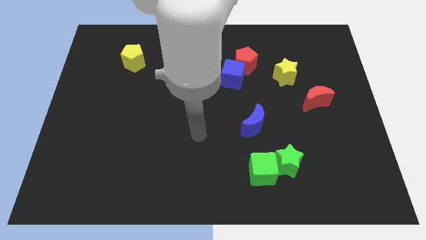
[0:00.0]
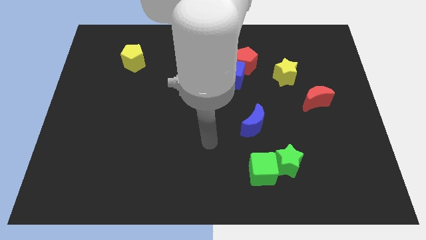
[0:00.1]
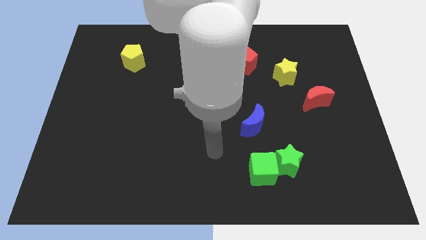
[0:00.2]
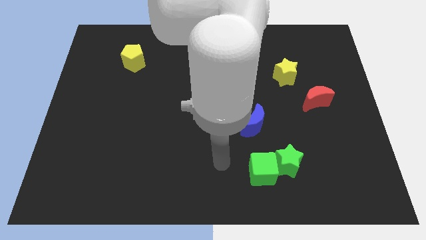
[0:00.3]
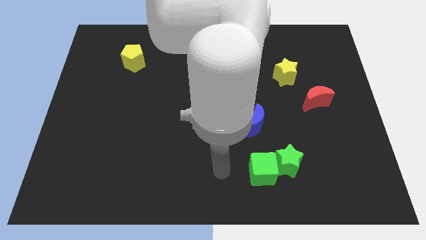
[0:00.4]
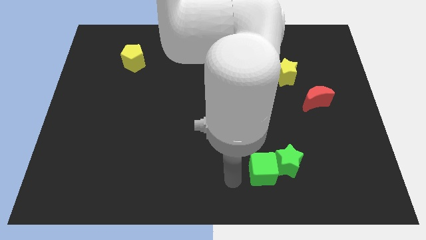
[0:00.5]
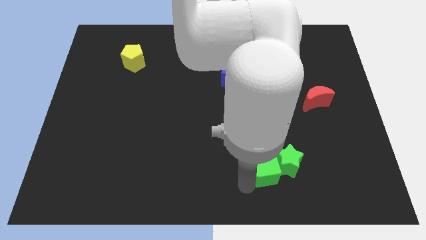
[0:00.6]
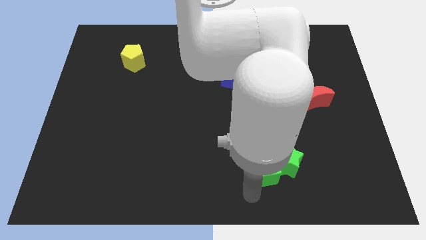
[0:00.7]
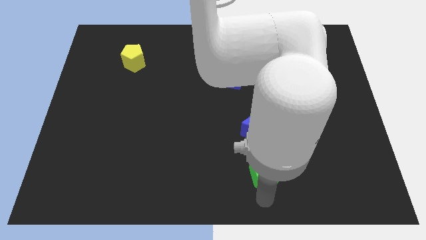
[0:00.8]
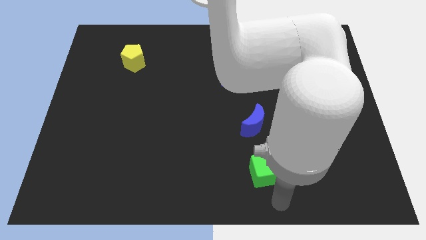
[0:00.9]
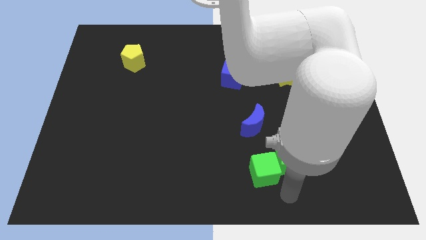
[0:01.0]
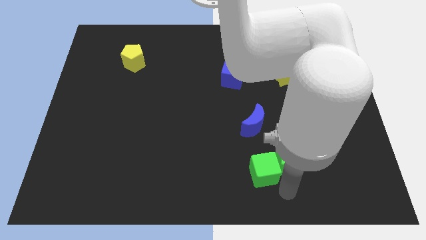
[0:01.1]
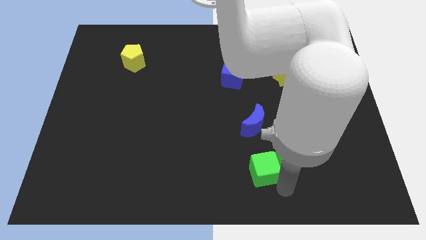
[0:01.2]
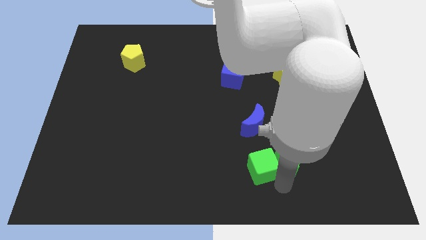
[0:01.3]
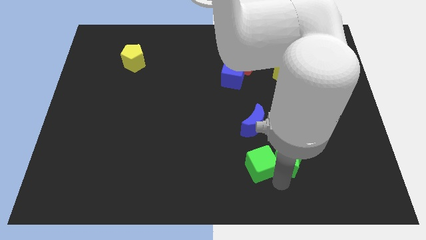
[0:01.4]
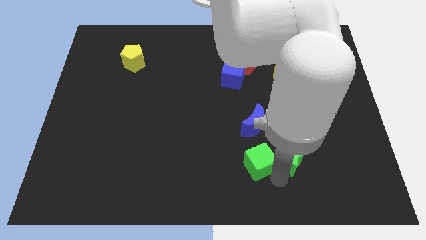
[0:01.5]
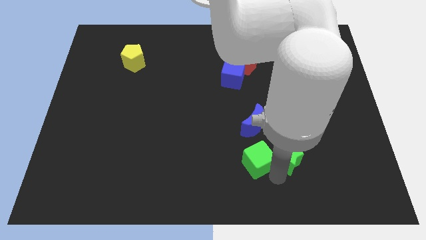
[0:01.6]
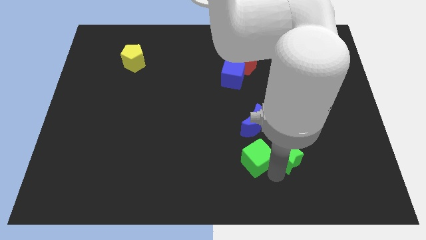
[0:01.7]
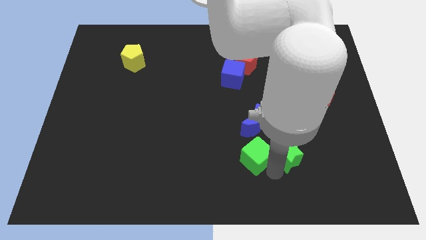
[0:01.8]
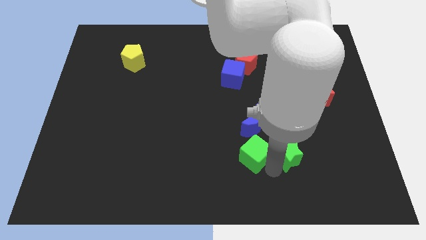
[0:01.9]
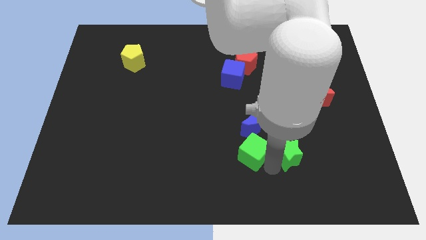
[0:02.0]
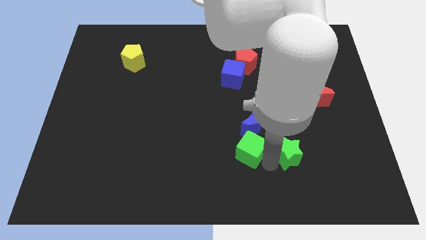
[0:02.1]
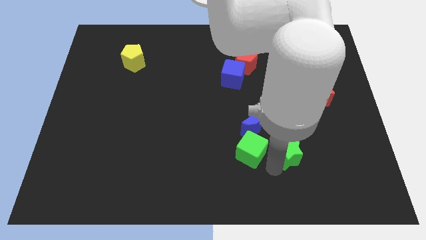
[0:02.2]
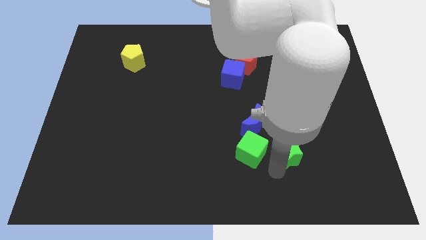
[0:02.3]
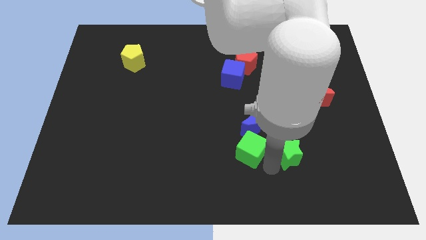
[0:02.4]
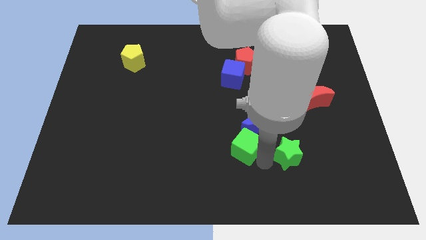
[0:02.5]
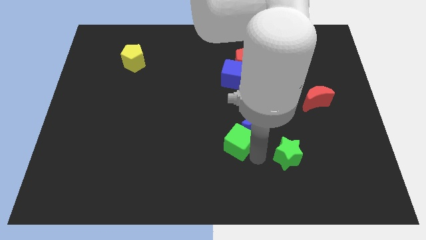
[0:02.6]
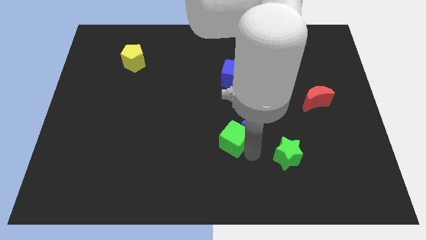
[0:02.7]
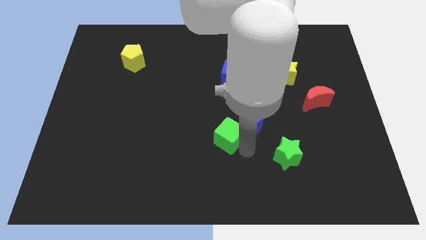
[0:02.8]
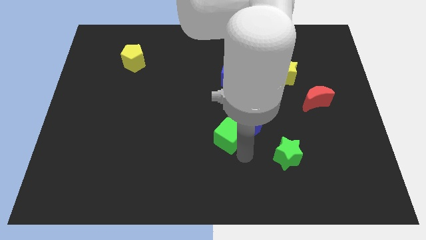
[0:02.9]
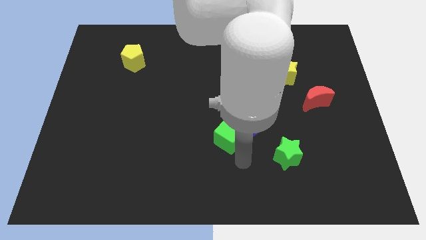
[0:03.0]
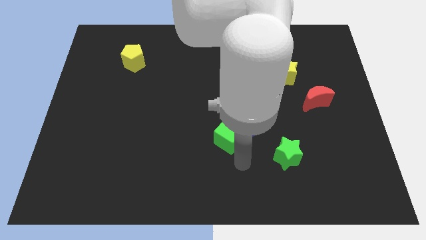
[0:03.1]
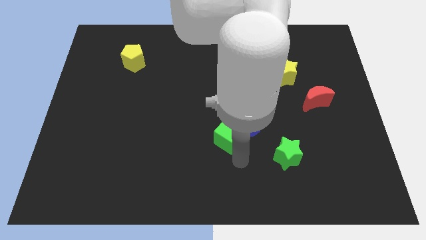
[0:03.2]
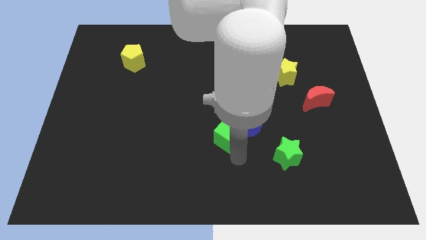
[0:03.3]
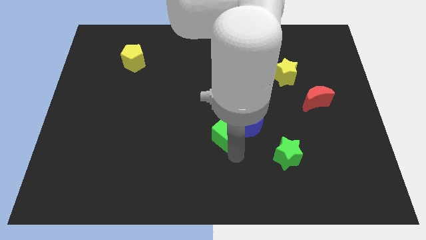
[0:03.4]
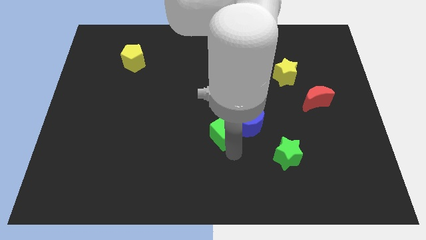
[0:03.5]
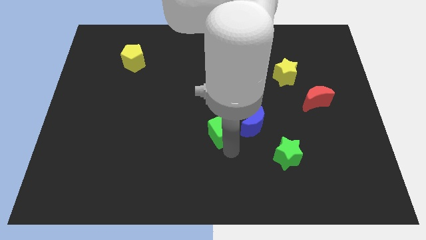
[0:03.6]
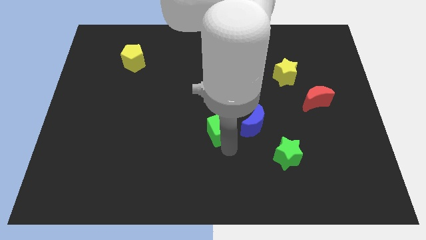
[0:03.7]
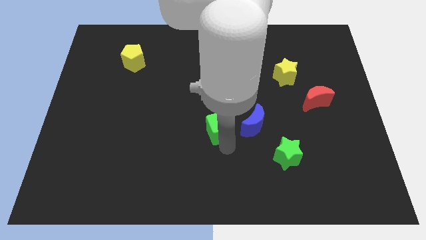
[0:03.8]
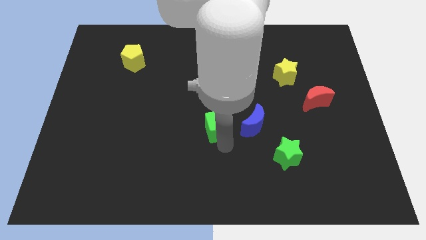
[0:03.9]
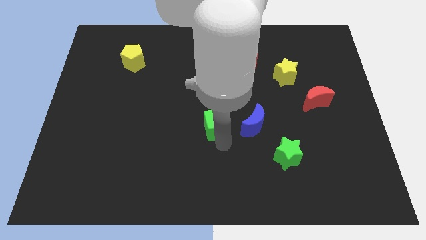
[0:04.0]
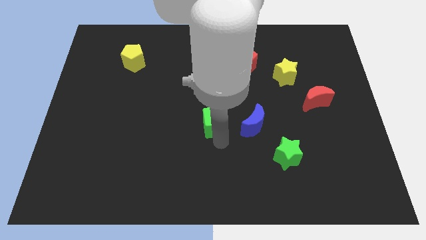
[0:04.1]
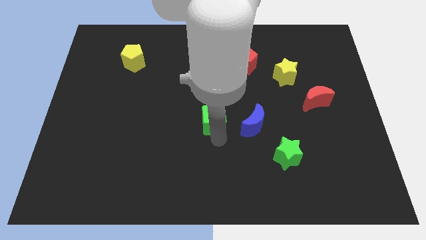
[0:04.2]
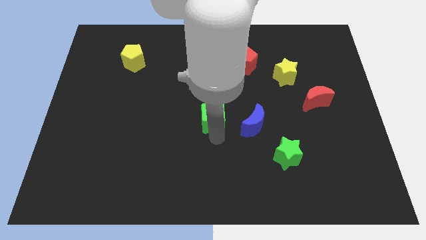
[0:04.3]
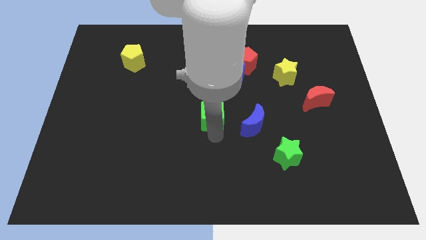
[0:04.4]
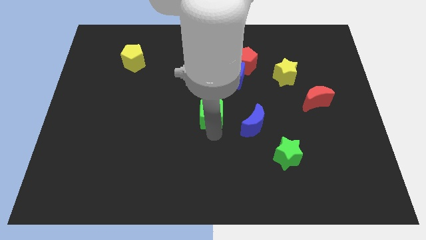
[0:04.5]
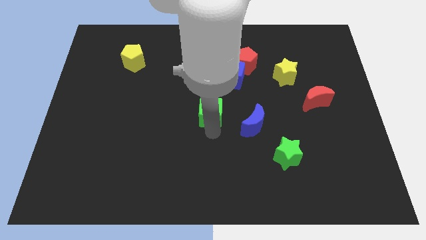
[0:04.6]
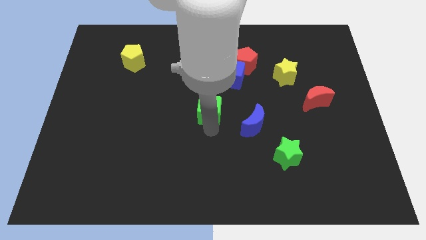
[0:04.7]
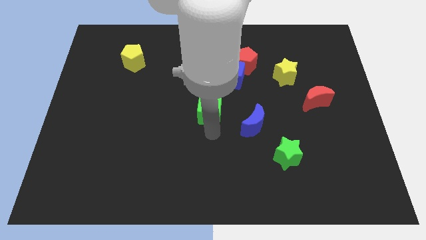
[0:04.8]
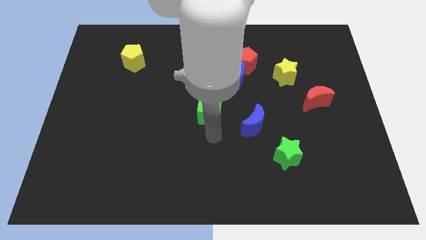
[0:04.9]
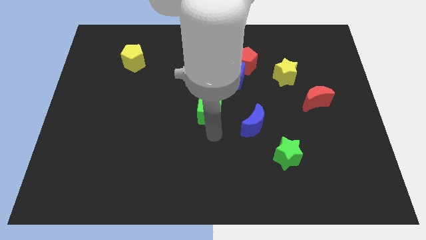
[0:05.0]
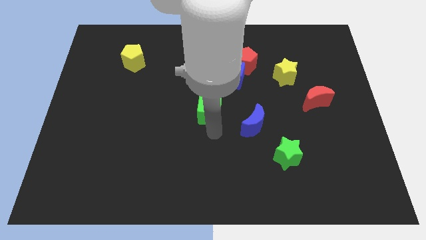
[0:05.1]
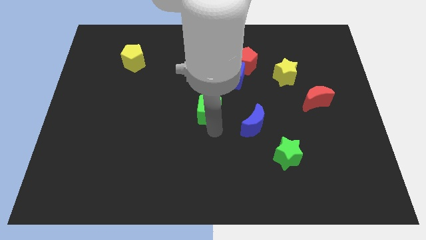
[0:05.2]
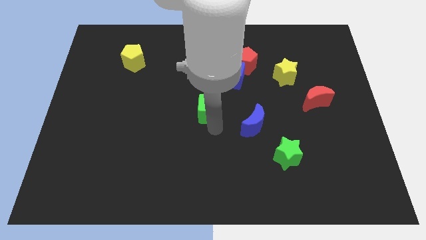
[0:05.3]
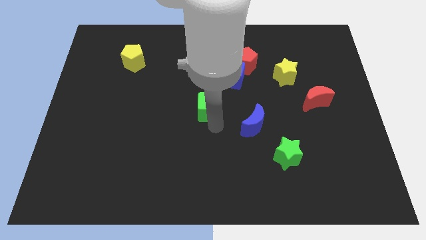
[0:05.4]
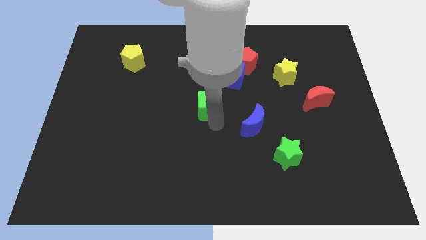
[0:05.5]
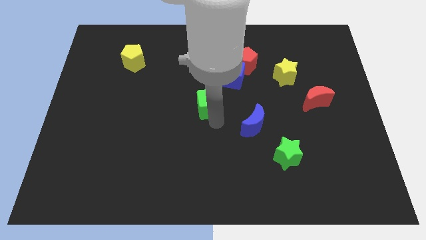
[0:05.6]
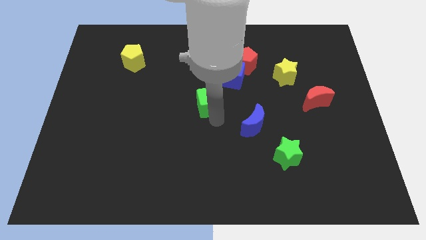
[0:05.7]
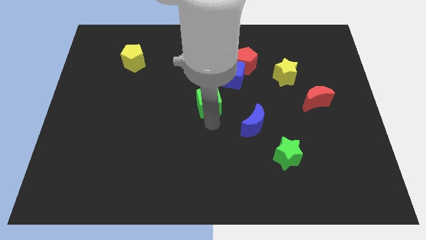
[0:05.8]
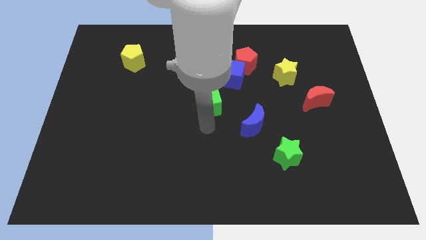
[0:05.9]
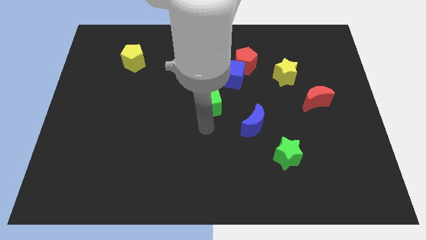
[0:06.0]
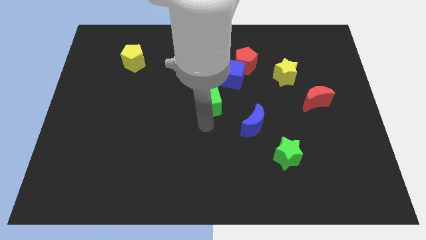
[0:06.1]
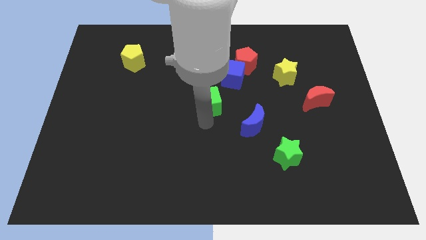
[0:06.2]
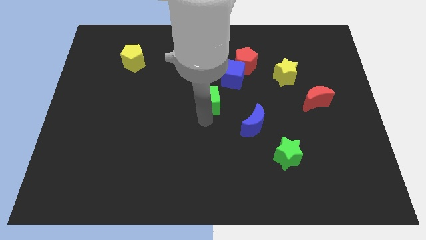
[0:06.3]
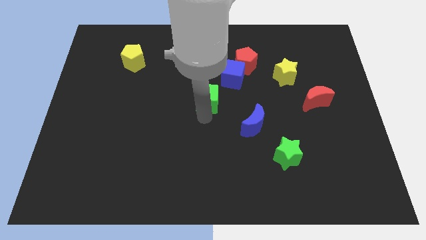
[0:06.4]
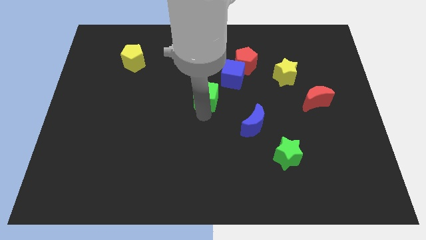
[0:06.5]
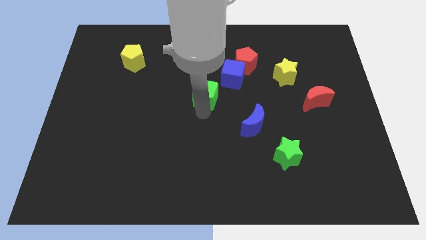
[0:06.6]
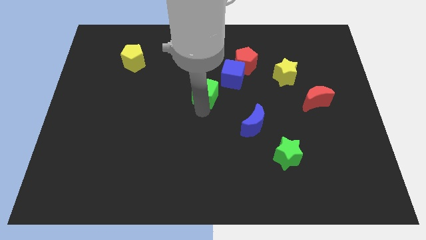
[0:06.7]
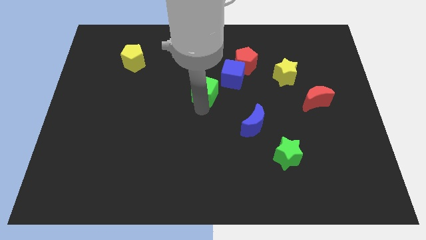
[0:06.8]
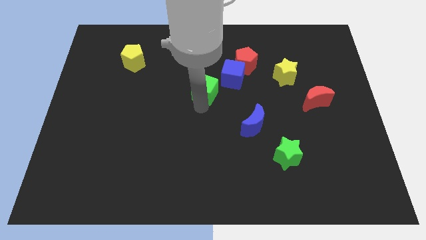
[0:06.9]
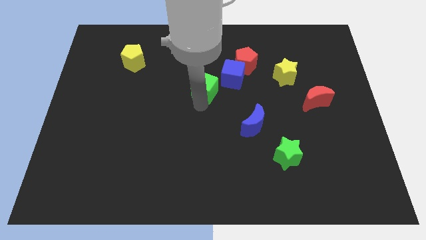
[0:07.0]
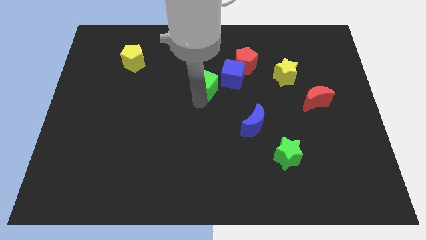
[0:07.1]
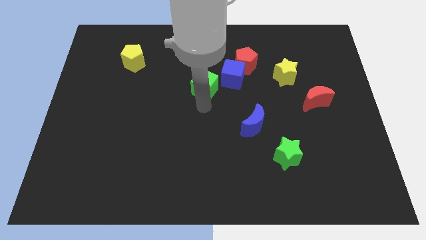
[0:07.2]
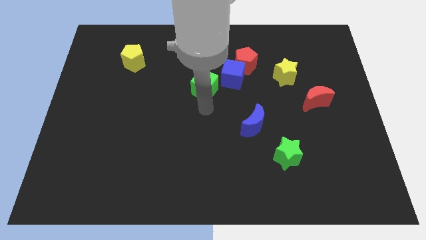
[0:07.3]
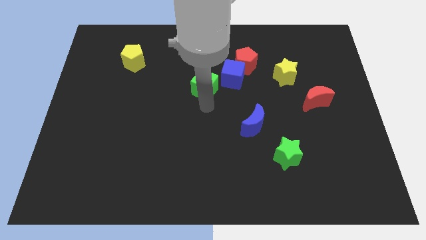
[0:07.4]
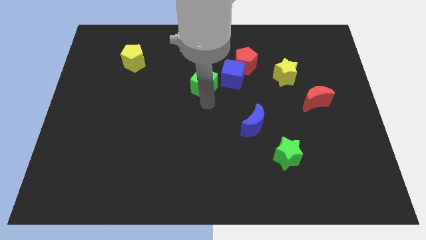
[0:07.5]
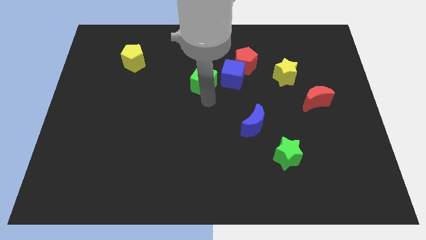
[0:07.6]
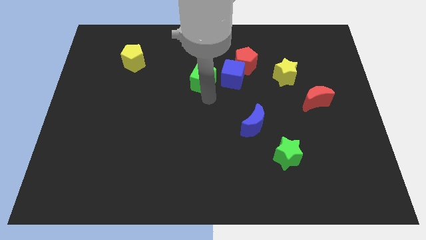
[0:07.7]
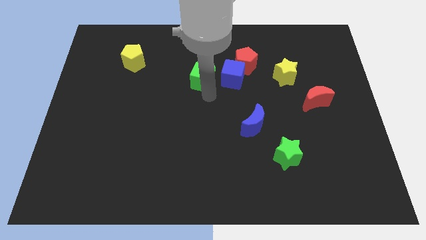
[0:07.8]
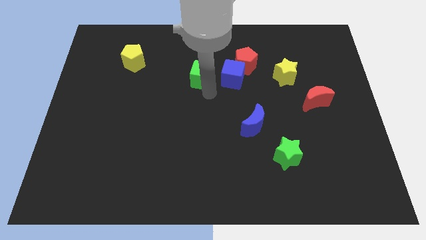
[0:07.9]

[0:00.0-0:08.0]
put the green cube just left of the red pentagon
